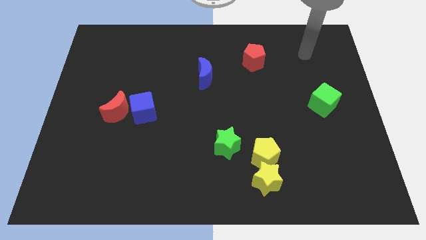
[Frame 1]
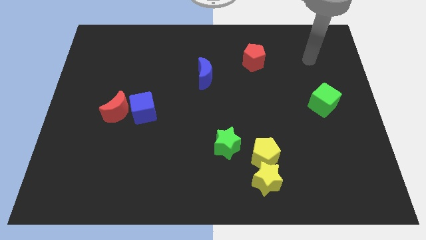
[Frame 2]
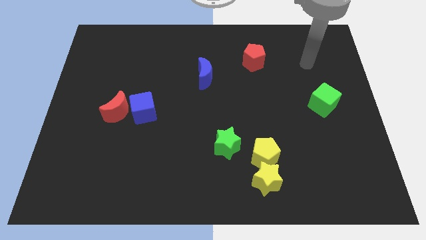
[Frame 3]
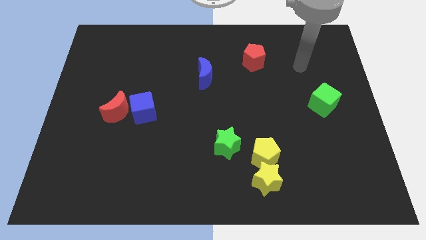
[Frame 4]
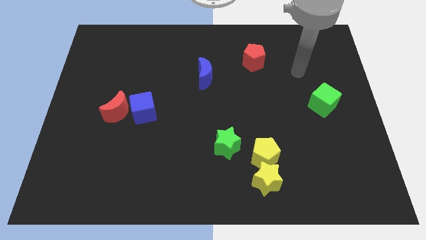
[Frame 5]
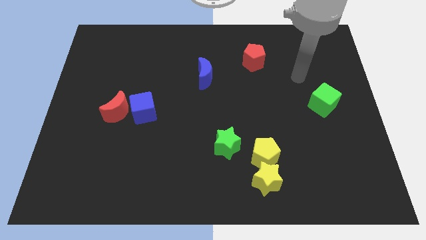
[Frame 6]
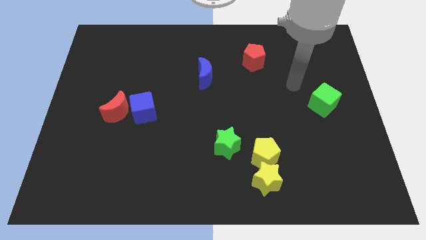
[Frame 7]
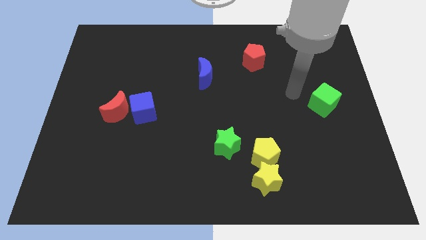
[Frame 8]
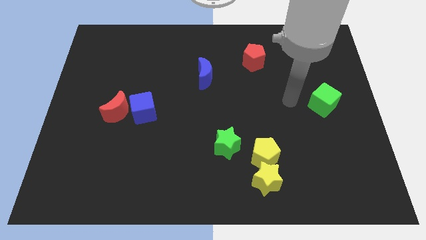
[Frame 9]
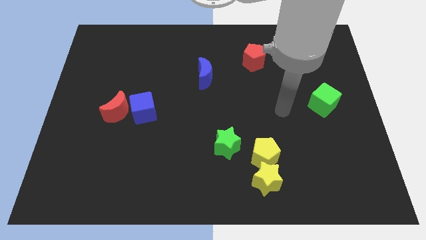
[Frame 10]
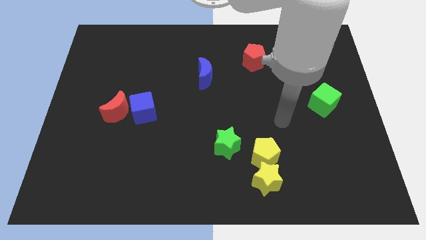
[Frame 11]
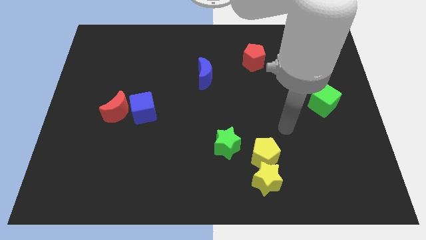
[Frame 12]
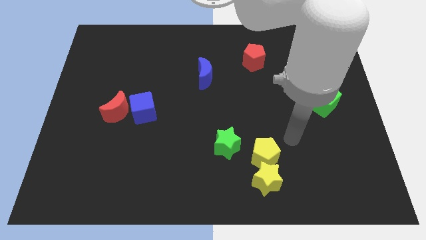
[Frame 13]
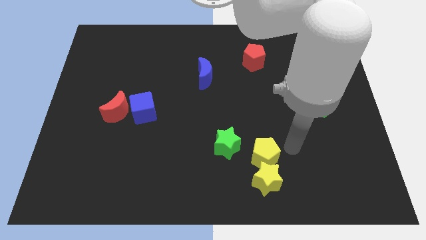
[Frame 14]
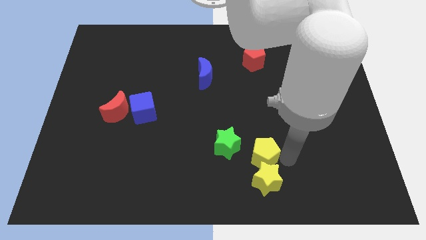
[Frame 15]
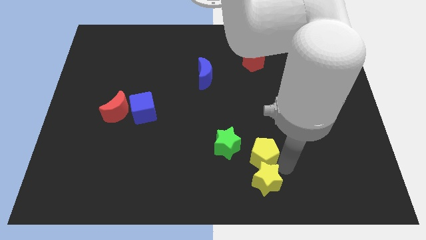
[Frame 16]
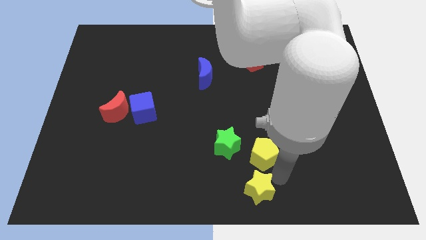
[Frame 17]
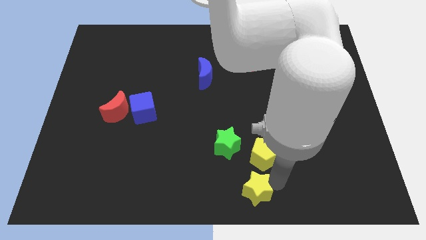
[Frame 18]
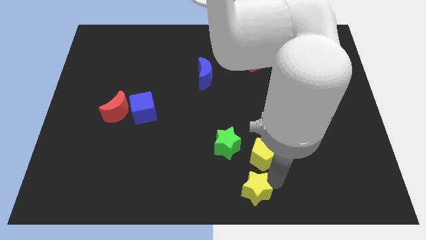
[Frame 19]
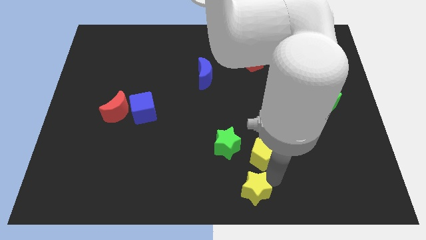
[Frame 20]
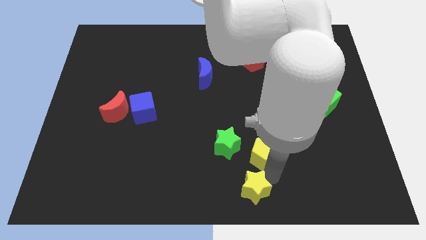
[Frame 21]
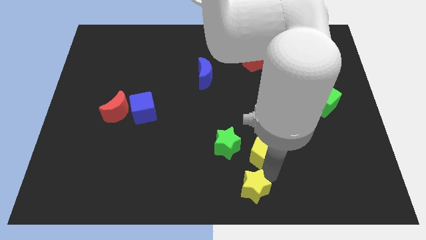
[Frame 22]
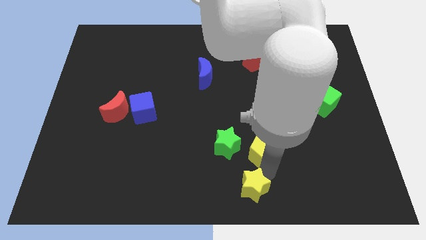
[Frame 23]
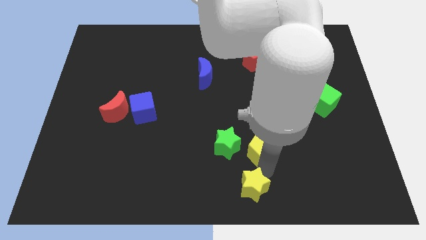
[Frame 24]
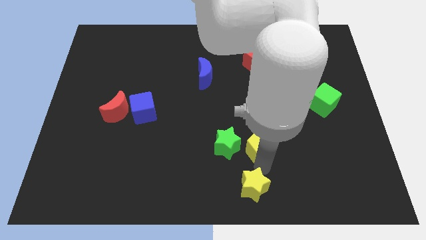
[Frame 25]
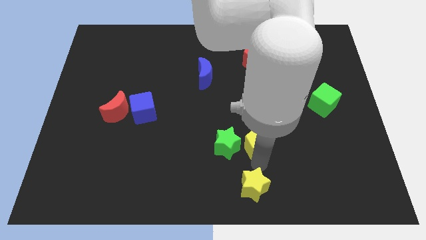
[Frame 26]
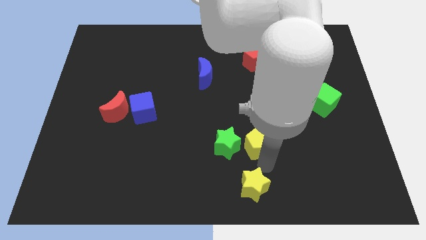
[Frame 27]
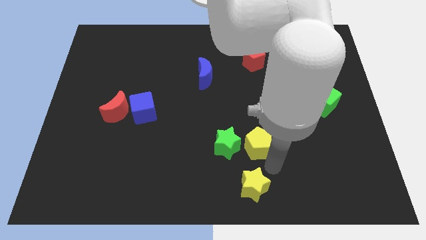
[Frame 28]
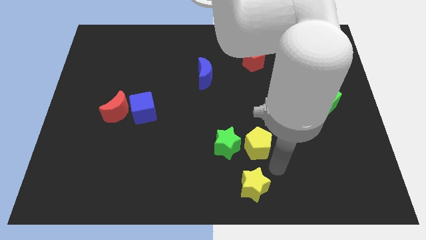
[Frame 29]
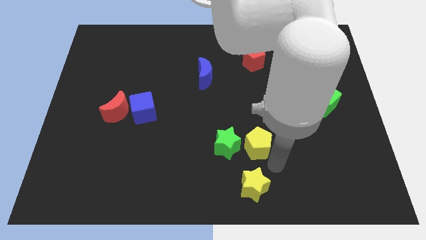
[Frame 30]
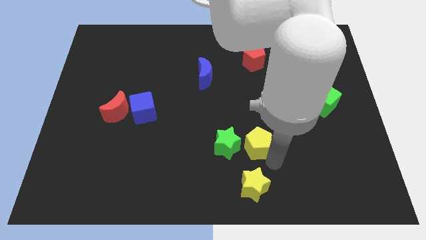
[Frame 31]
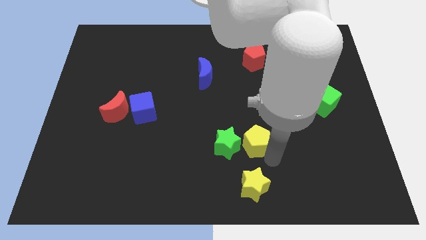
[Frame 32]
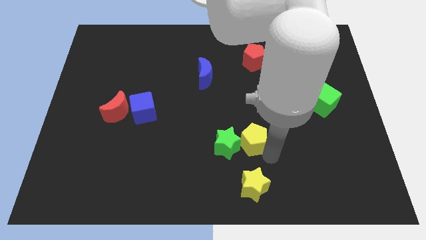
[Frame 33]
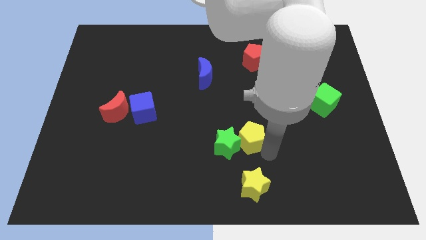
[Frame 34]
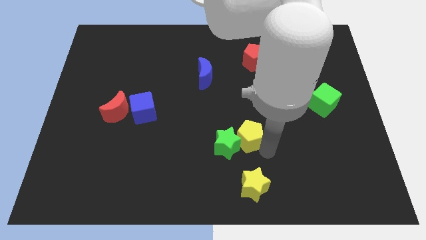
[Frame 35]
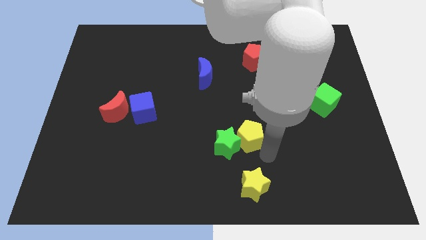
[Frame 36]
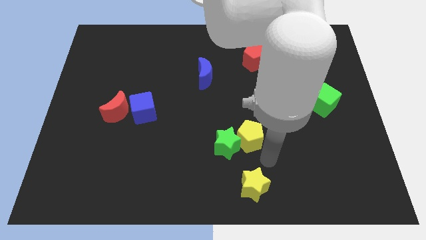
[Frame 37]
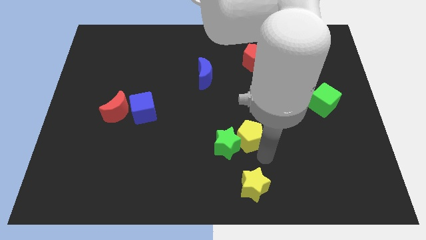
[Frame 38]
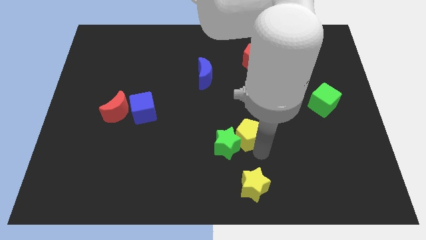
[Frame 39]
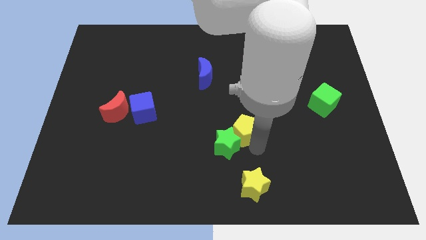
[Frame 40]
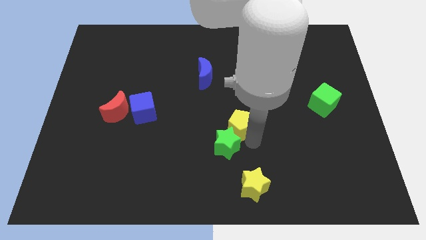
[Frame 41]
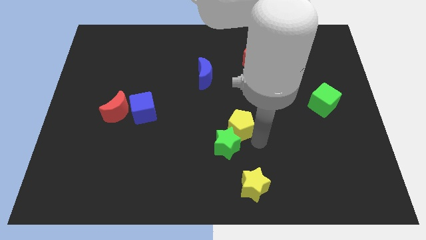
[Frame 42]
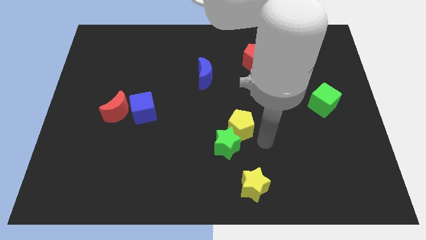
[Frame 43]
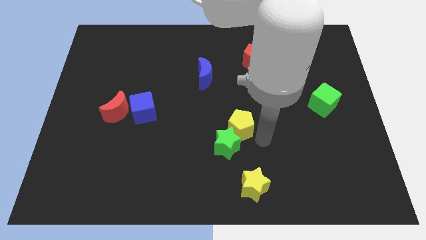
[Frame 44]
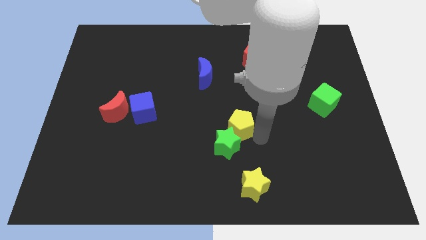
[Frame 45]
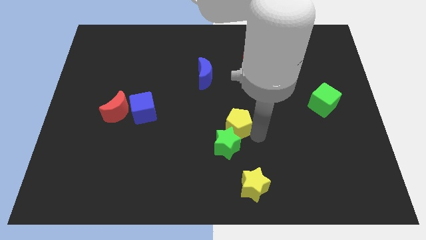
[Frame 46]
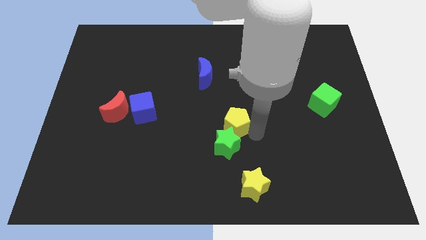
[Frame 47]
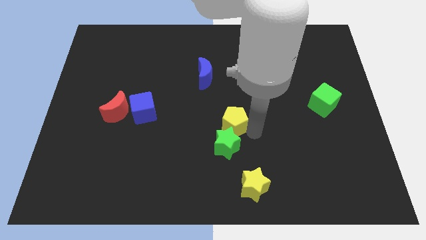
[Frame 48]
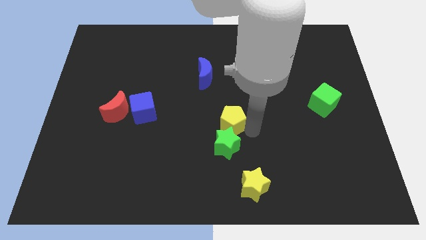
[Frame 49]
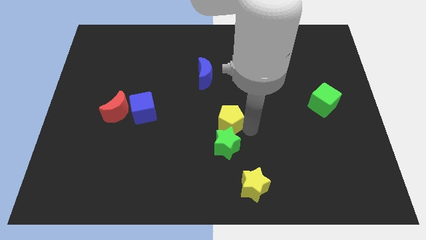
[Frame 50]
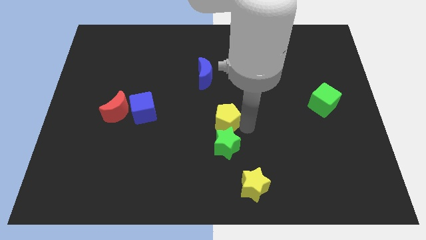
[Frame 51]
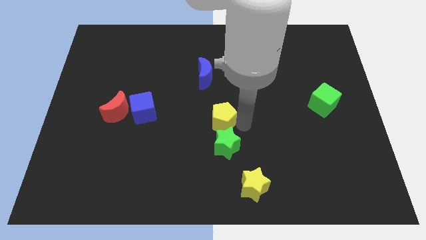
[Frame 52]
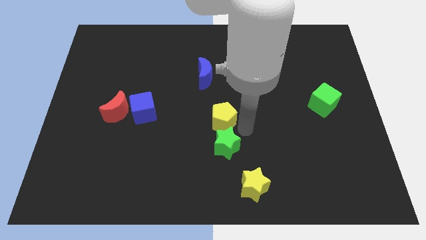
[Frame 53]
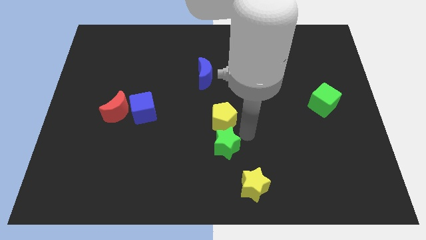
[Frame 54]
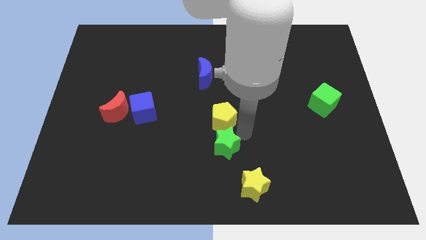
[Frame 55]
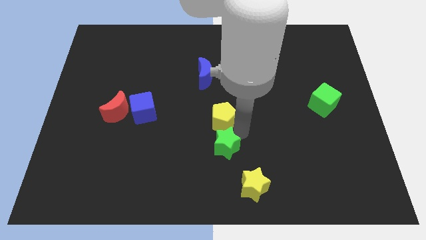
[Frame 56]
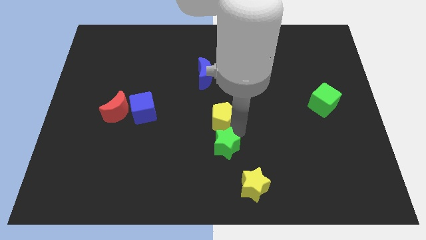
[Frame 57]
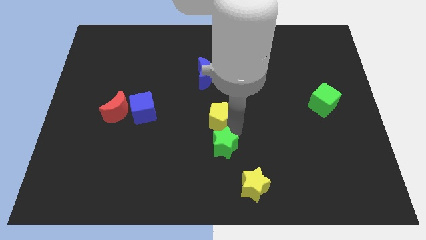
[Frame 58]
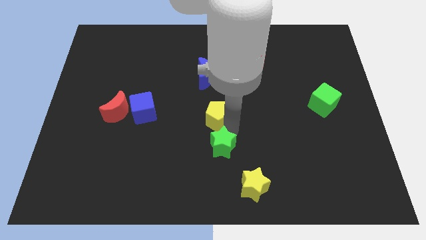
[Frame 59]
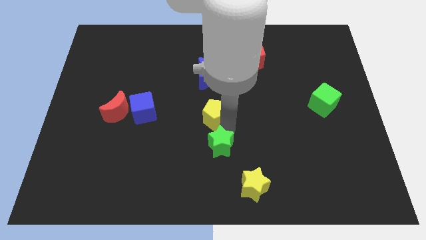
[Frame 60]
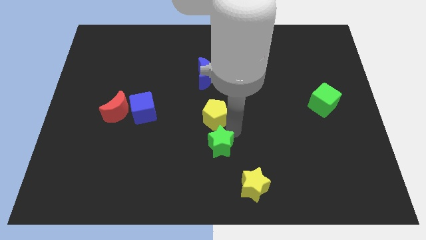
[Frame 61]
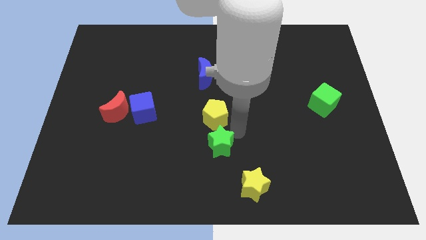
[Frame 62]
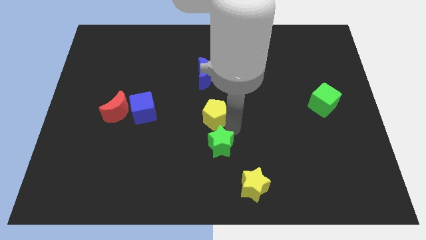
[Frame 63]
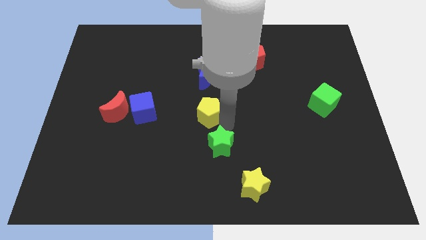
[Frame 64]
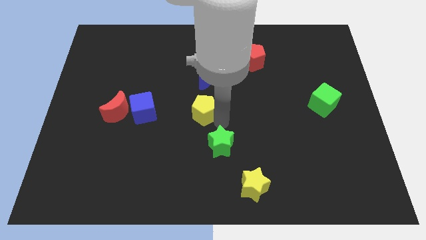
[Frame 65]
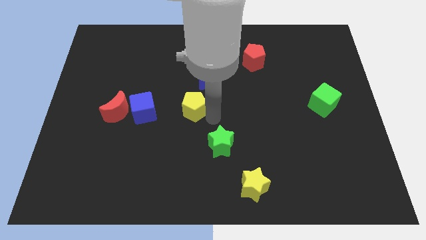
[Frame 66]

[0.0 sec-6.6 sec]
push the yellow pentagon up and then to the left

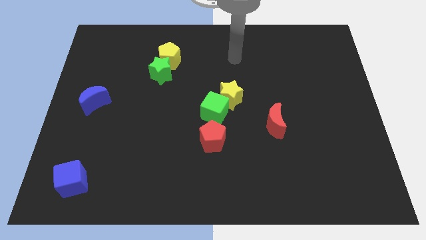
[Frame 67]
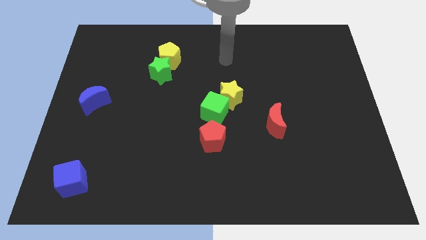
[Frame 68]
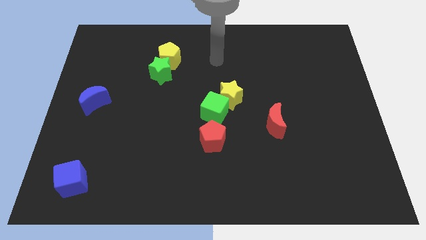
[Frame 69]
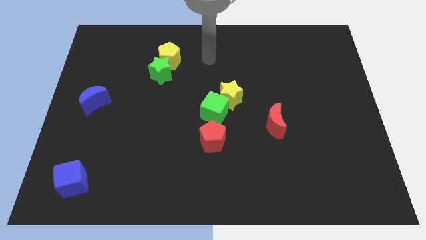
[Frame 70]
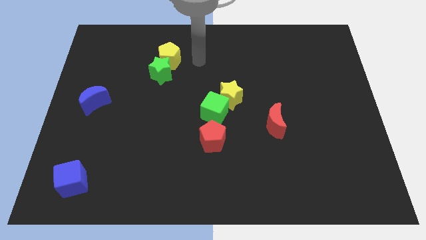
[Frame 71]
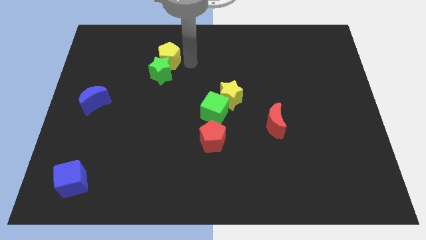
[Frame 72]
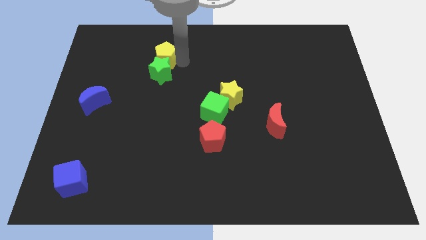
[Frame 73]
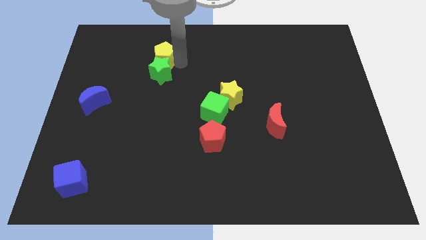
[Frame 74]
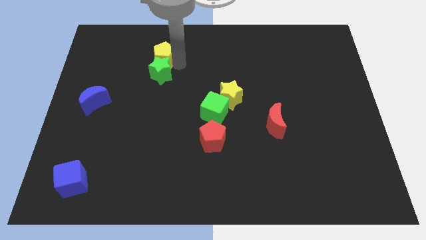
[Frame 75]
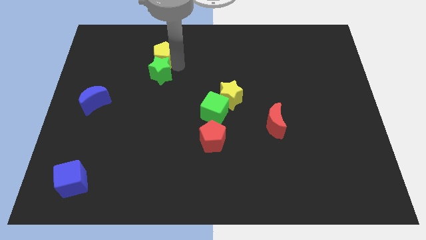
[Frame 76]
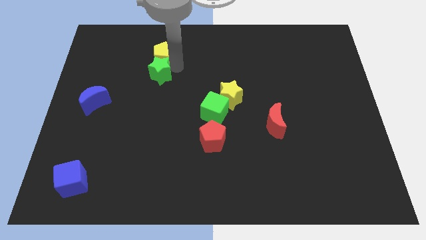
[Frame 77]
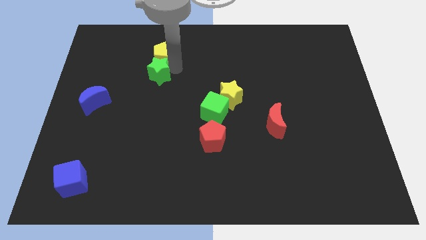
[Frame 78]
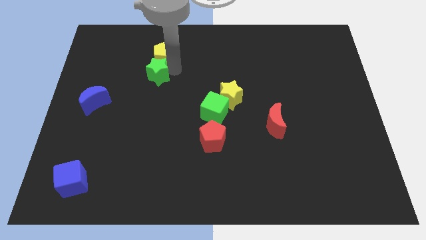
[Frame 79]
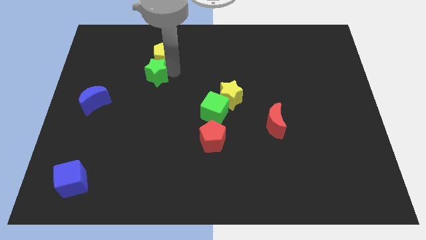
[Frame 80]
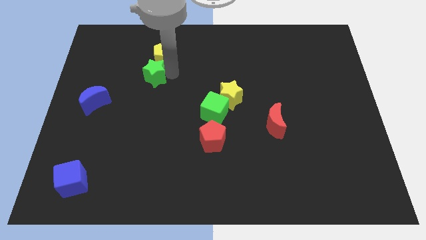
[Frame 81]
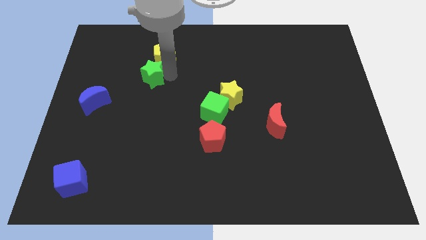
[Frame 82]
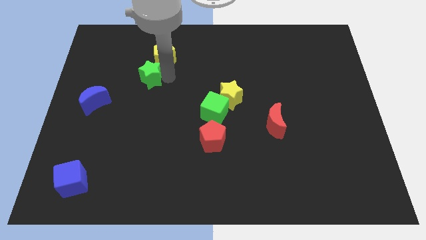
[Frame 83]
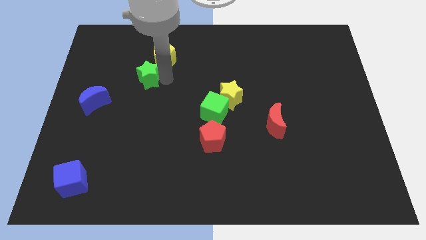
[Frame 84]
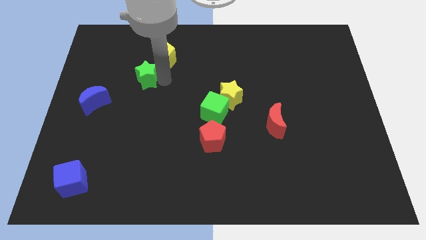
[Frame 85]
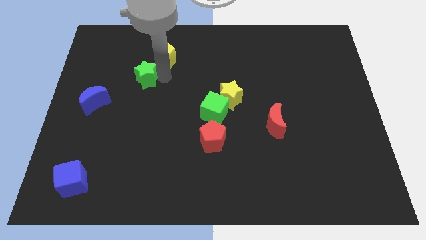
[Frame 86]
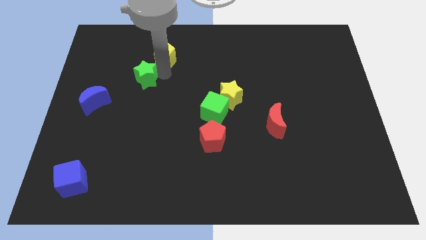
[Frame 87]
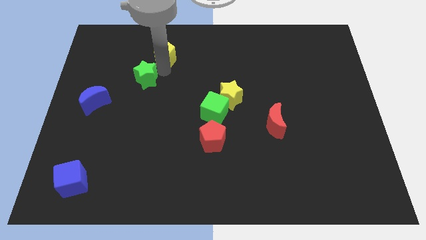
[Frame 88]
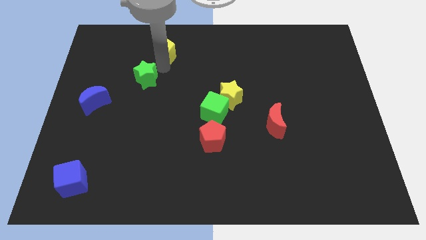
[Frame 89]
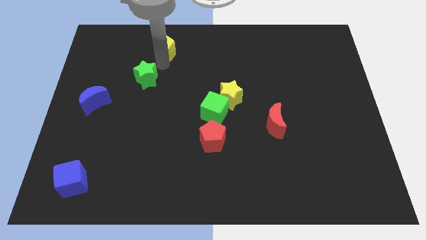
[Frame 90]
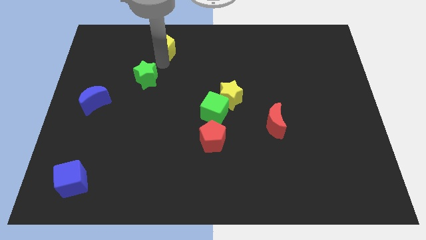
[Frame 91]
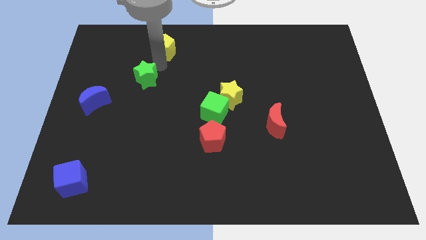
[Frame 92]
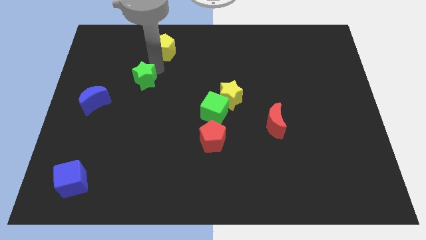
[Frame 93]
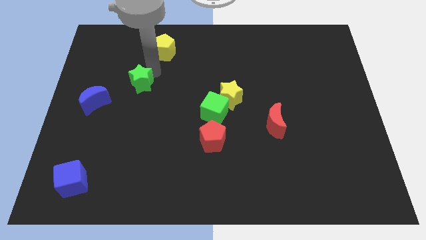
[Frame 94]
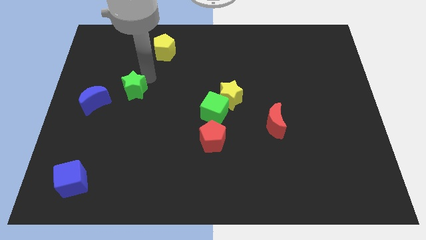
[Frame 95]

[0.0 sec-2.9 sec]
slightly move the green star diagonally downwards and left
